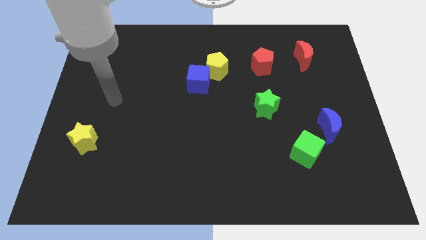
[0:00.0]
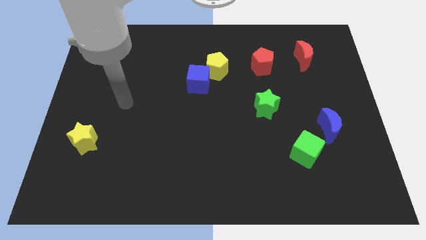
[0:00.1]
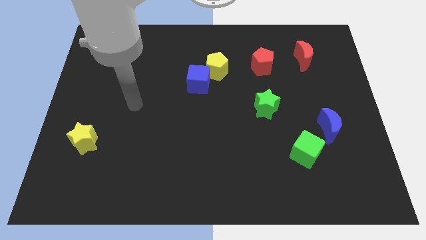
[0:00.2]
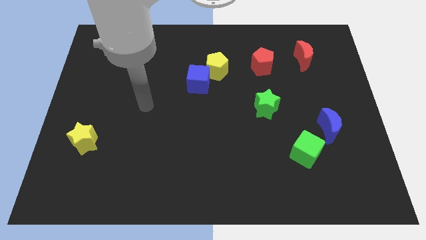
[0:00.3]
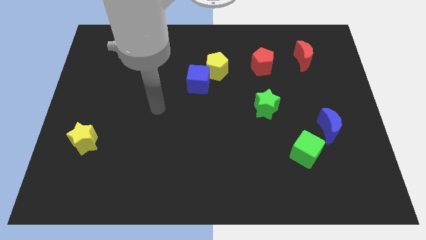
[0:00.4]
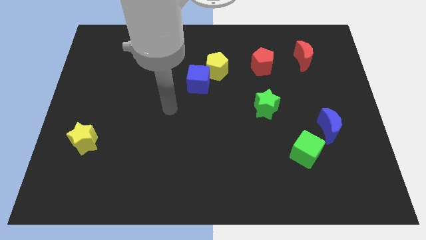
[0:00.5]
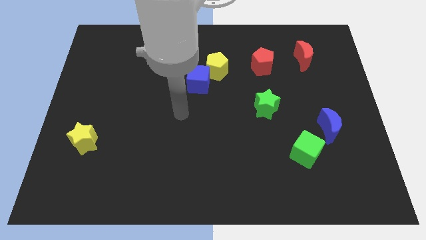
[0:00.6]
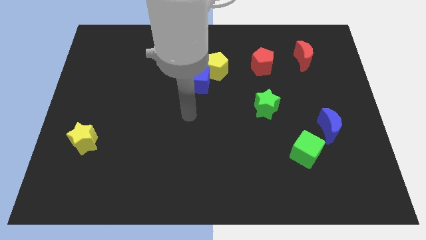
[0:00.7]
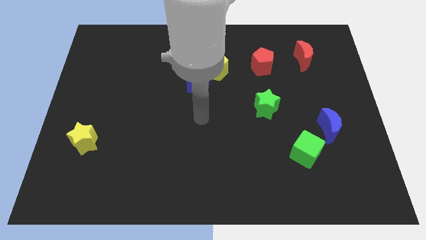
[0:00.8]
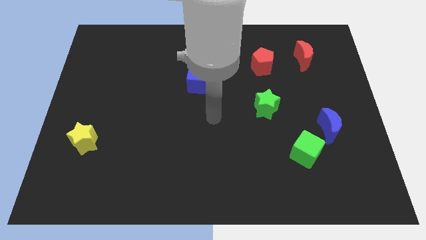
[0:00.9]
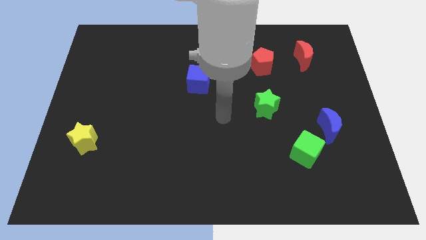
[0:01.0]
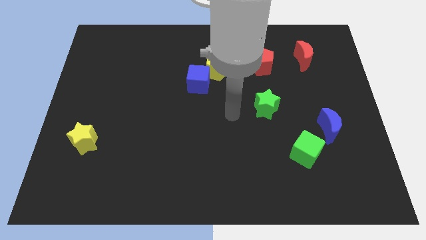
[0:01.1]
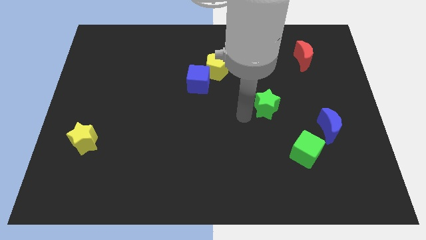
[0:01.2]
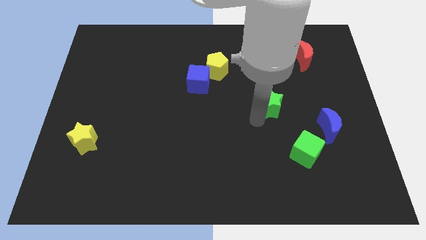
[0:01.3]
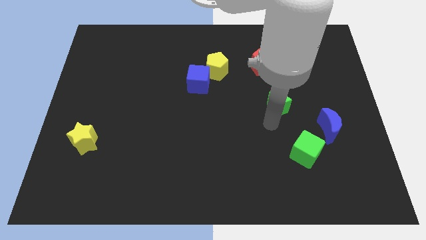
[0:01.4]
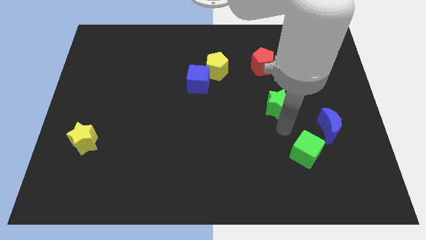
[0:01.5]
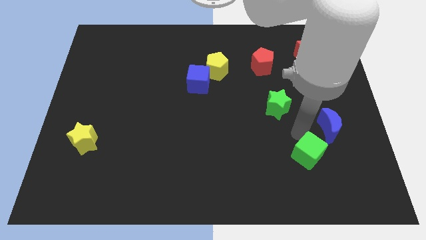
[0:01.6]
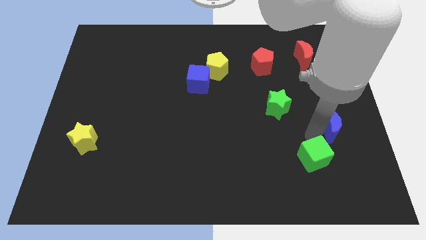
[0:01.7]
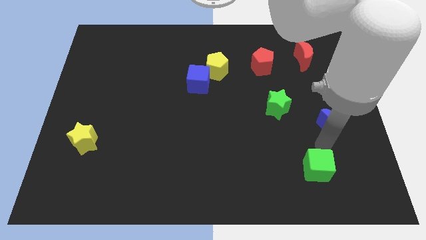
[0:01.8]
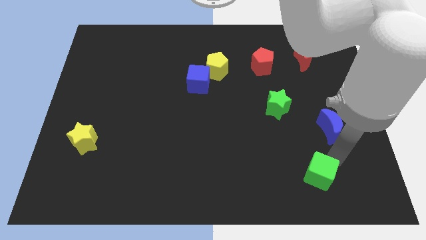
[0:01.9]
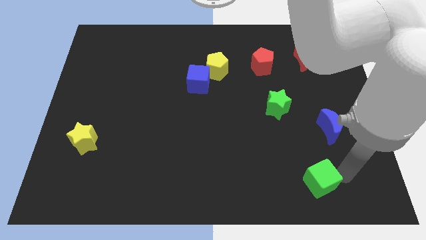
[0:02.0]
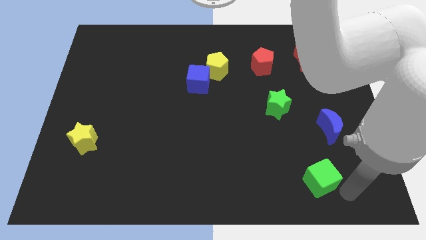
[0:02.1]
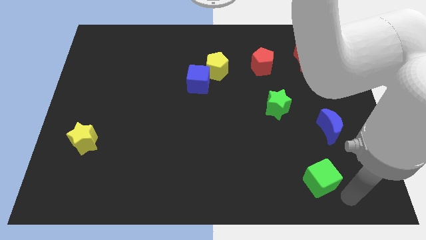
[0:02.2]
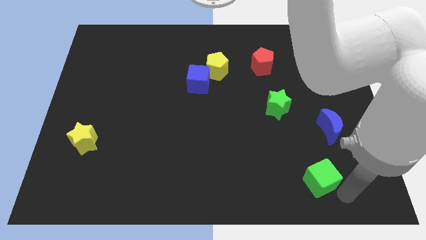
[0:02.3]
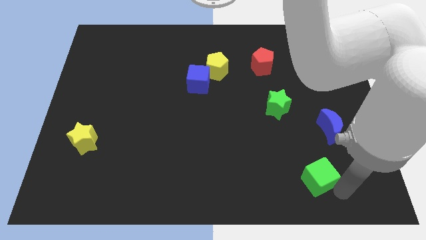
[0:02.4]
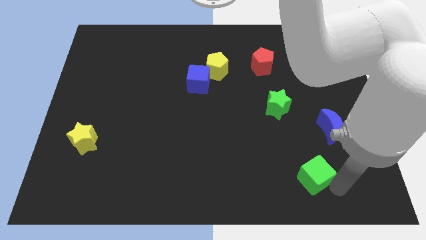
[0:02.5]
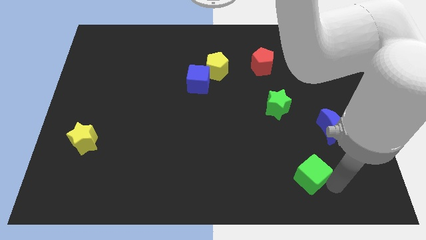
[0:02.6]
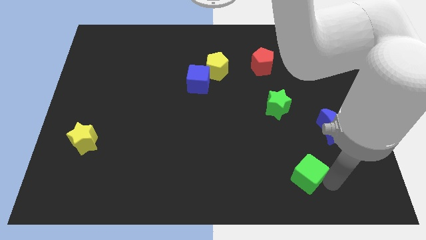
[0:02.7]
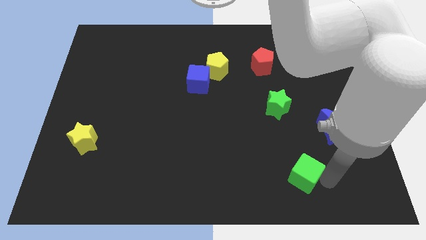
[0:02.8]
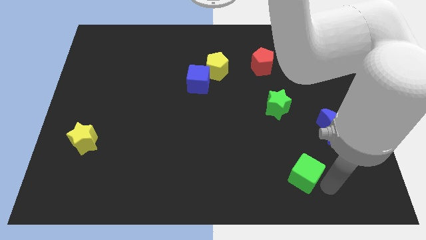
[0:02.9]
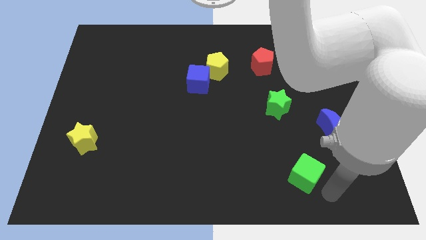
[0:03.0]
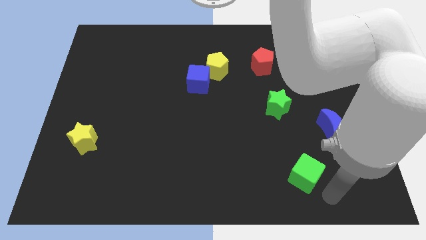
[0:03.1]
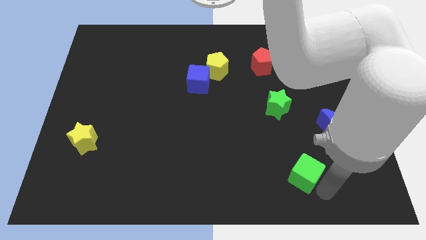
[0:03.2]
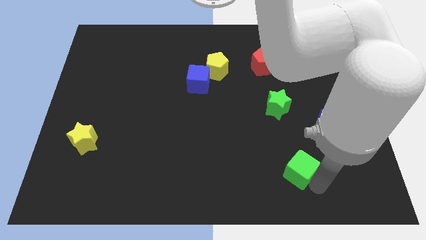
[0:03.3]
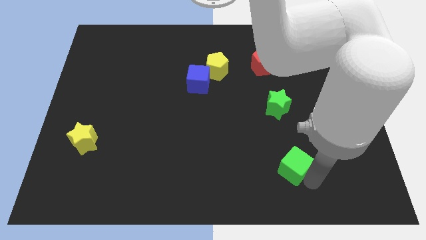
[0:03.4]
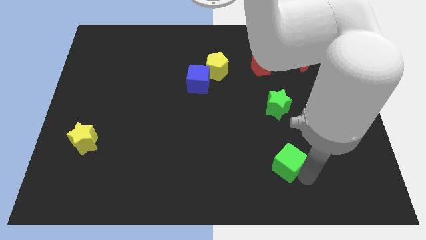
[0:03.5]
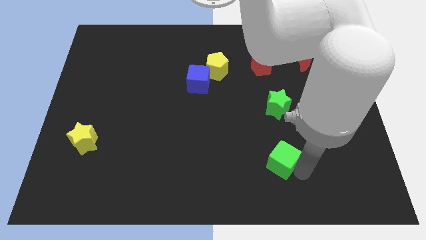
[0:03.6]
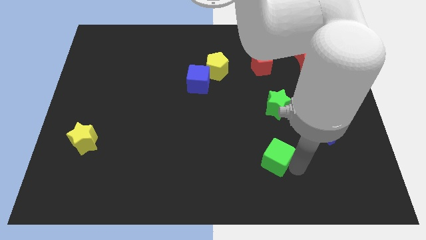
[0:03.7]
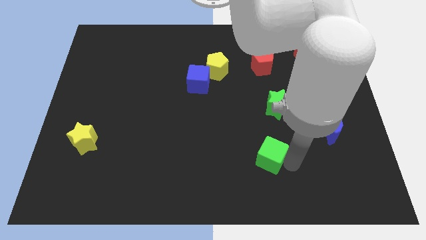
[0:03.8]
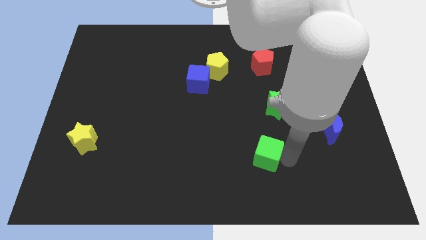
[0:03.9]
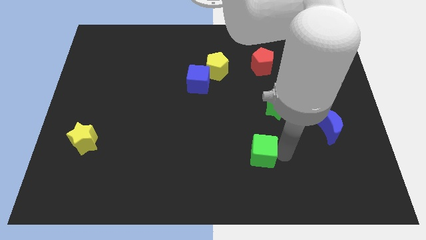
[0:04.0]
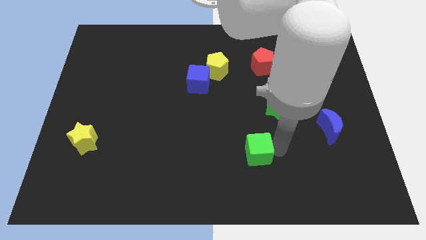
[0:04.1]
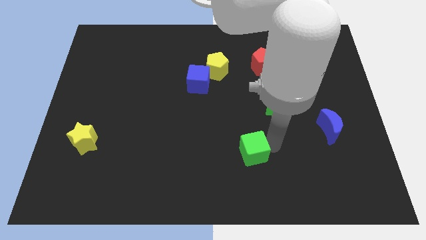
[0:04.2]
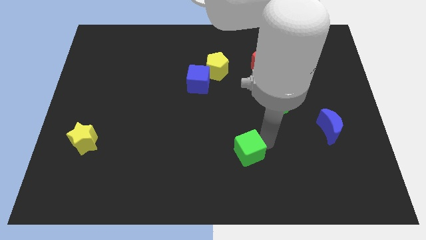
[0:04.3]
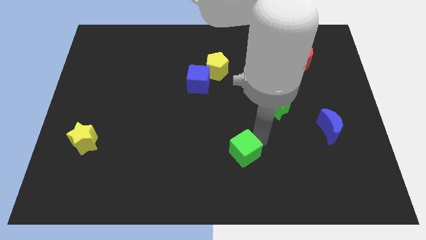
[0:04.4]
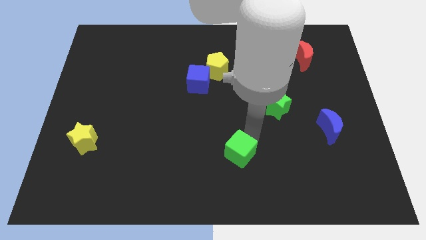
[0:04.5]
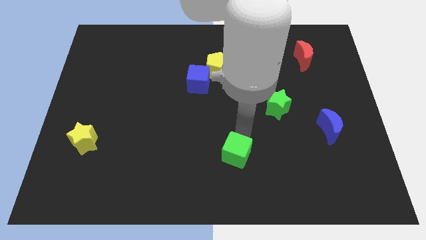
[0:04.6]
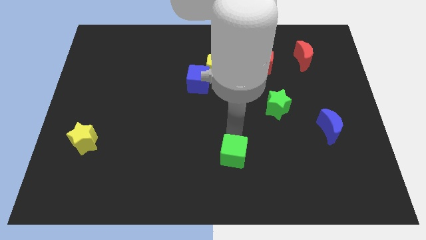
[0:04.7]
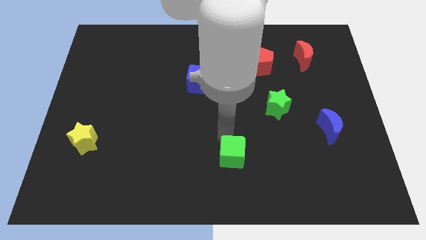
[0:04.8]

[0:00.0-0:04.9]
put the green cube to the bottom side

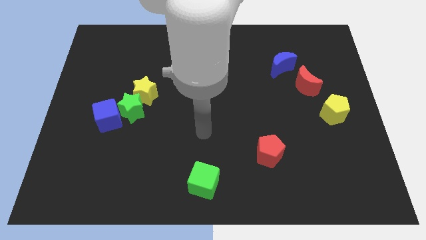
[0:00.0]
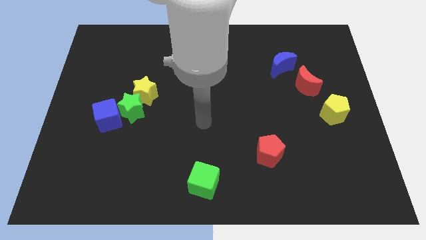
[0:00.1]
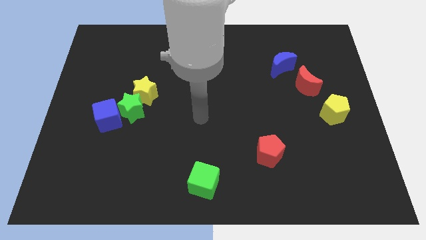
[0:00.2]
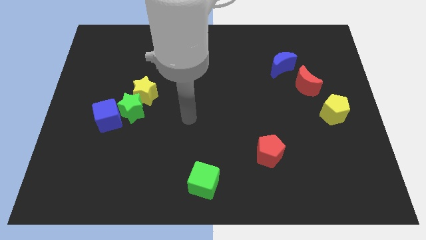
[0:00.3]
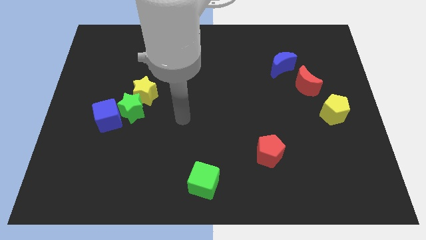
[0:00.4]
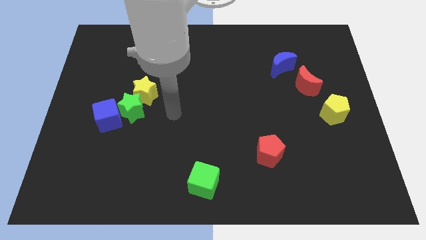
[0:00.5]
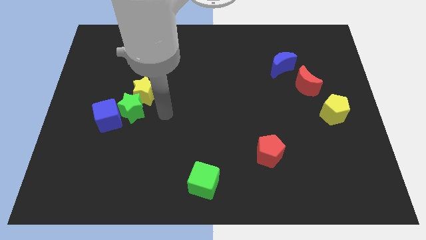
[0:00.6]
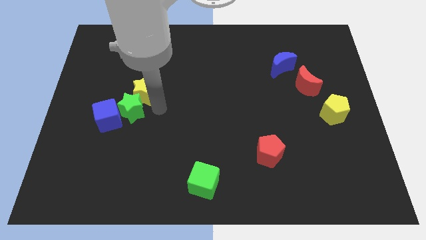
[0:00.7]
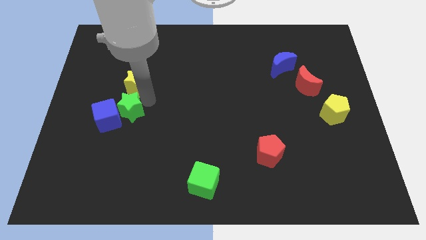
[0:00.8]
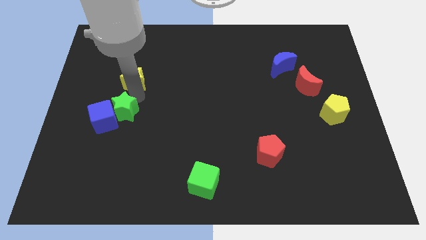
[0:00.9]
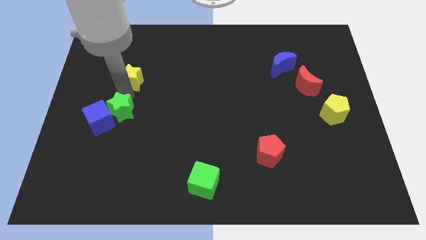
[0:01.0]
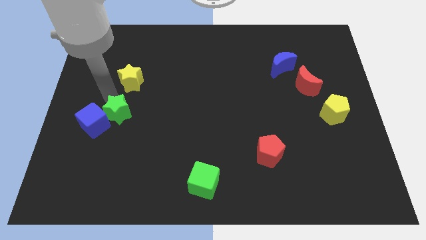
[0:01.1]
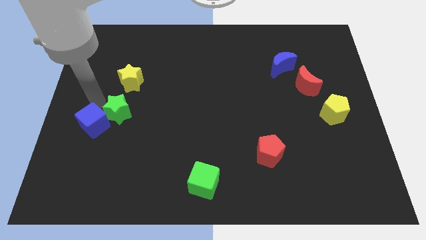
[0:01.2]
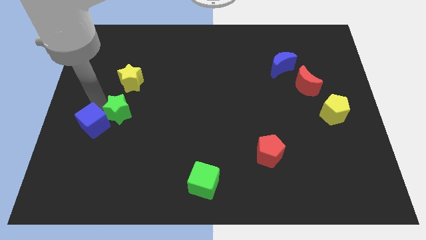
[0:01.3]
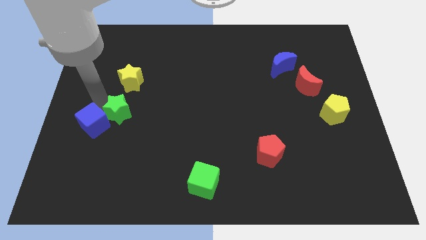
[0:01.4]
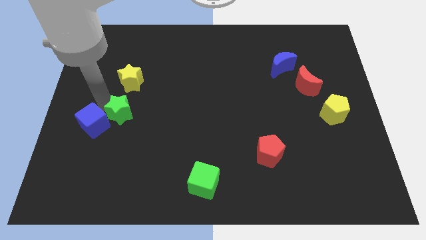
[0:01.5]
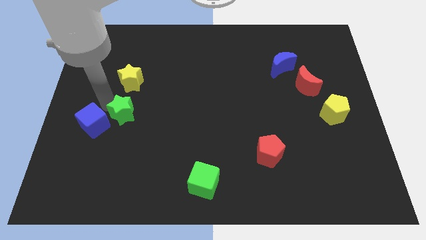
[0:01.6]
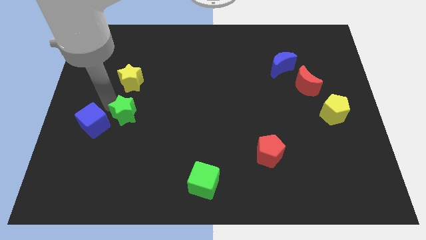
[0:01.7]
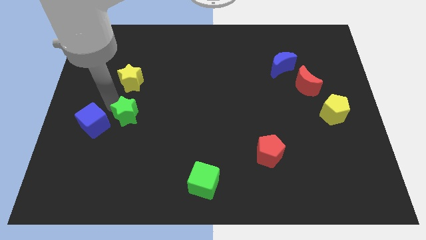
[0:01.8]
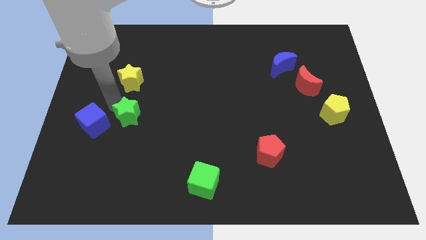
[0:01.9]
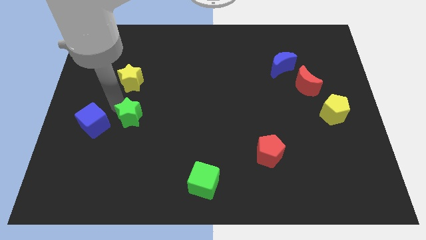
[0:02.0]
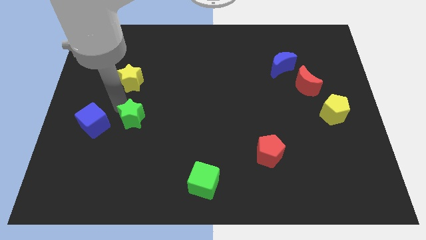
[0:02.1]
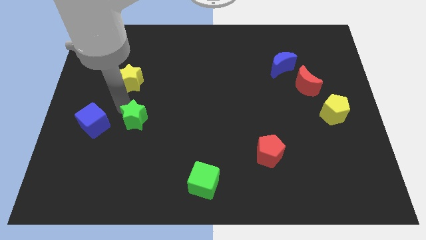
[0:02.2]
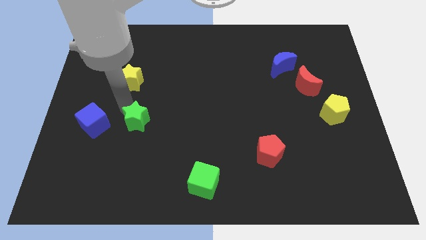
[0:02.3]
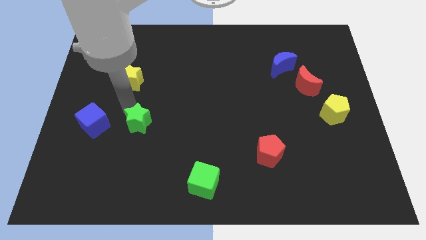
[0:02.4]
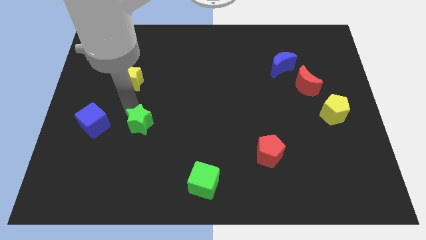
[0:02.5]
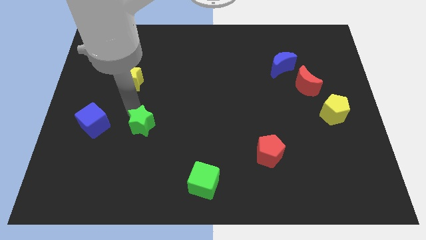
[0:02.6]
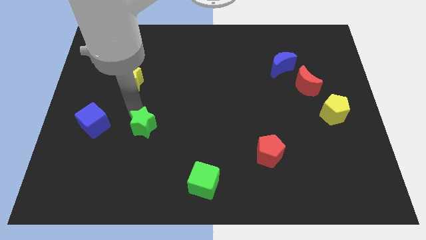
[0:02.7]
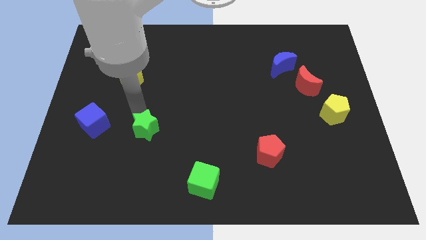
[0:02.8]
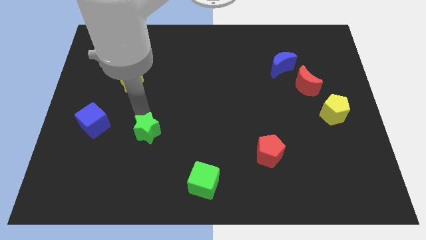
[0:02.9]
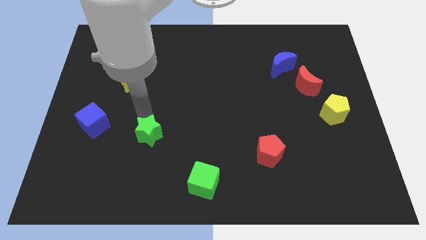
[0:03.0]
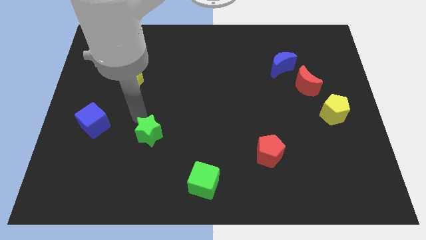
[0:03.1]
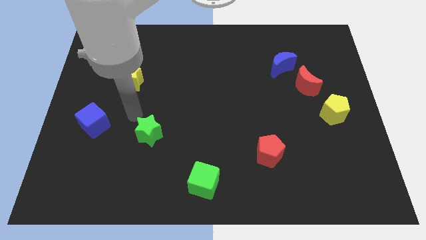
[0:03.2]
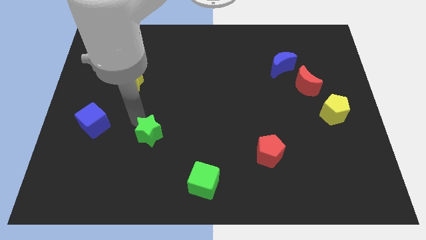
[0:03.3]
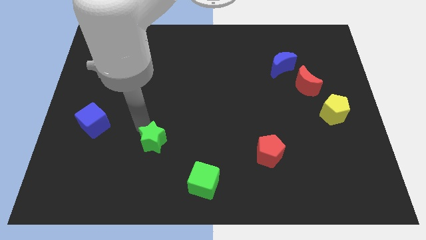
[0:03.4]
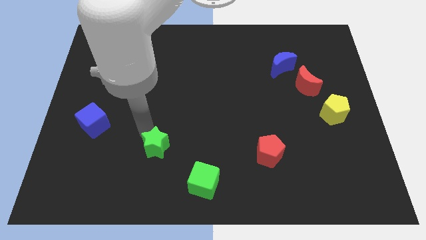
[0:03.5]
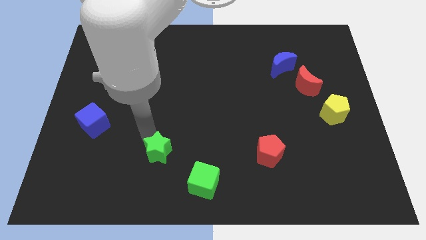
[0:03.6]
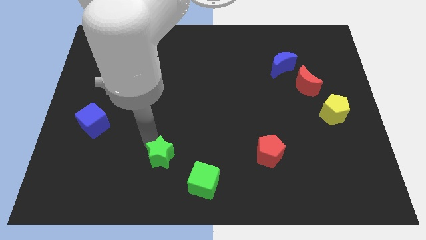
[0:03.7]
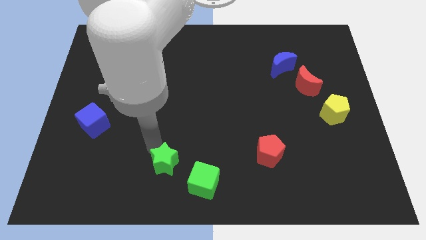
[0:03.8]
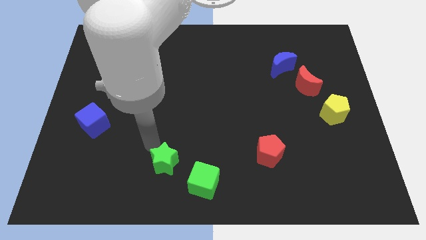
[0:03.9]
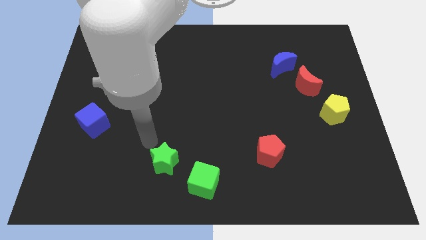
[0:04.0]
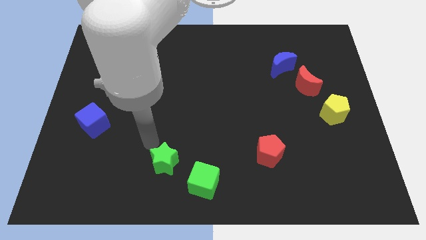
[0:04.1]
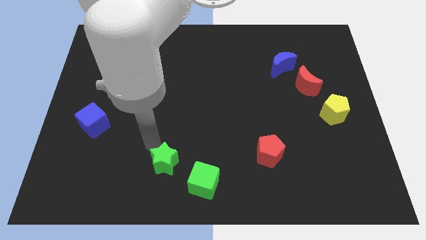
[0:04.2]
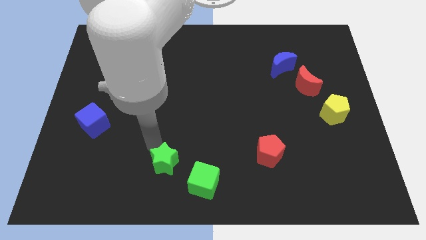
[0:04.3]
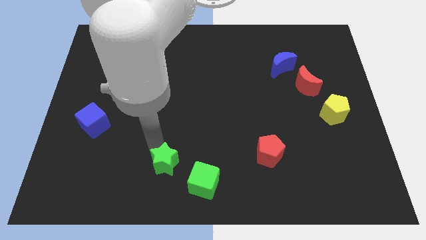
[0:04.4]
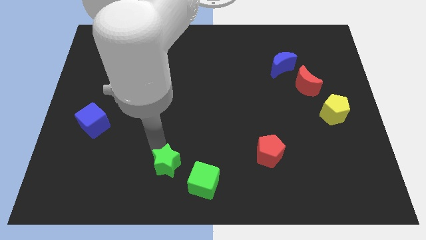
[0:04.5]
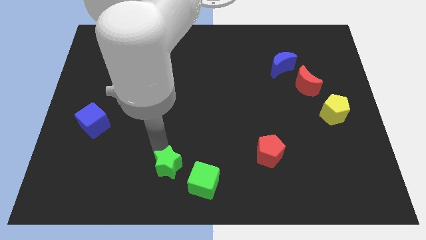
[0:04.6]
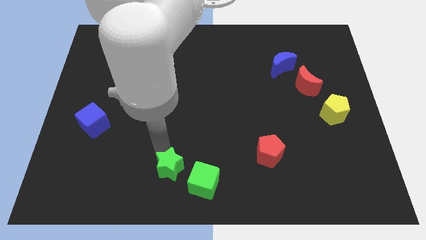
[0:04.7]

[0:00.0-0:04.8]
slide the green star to the bottom
